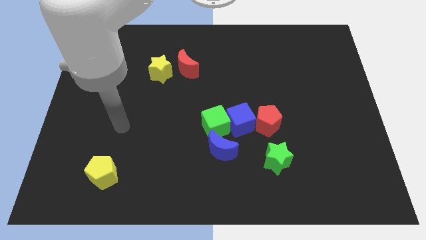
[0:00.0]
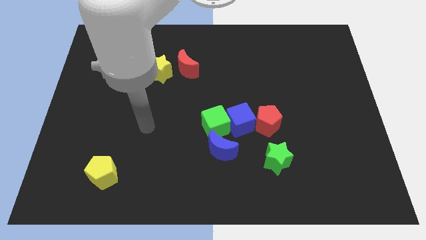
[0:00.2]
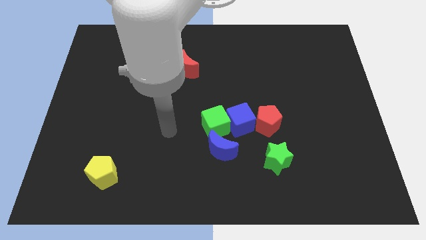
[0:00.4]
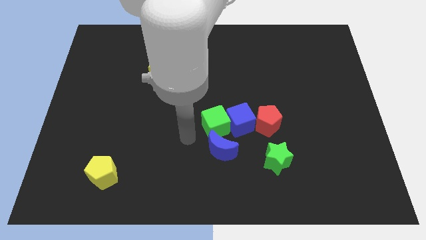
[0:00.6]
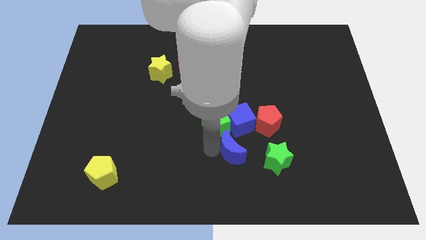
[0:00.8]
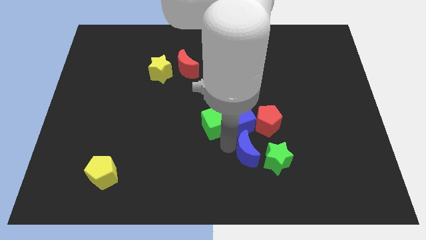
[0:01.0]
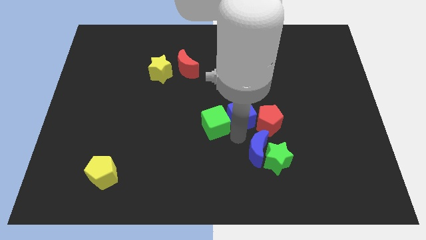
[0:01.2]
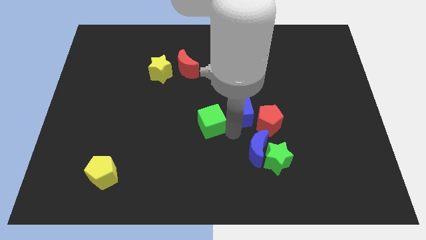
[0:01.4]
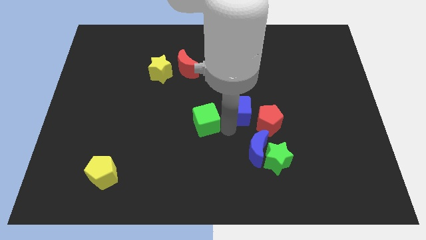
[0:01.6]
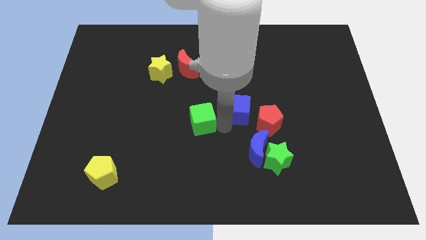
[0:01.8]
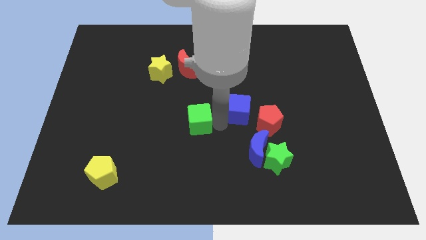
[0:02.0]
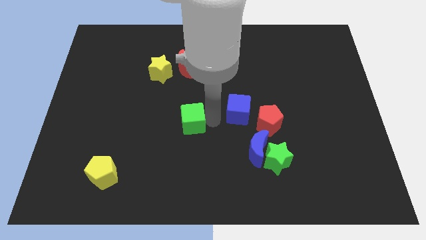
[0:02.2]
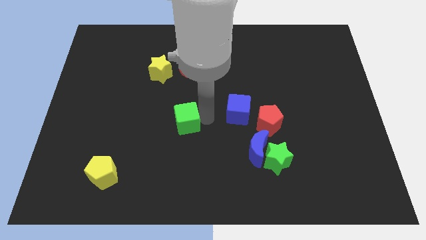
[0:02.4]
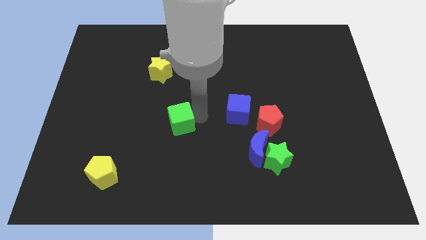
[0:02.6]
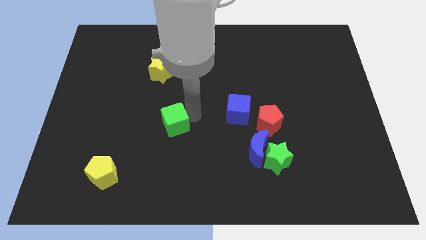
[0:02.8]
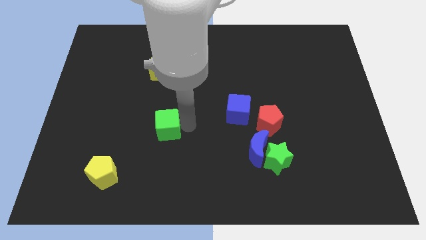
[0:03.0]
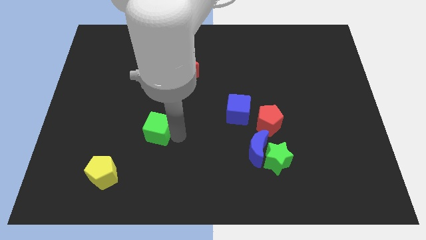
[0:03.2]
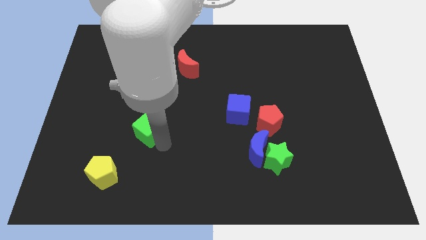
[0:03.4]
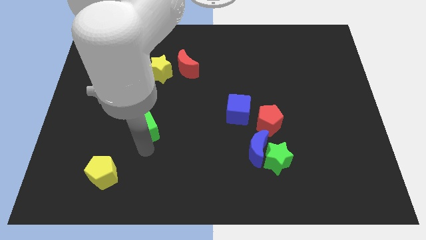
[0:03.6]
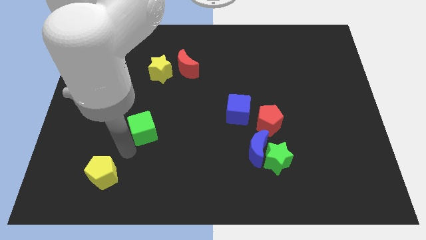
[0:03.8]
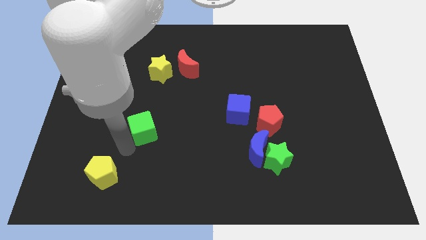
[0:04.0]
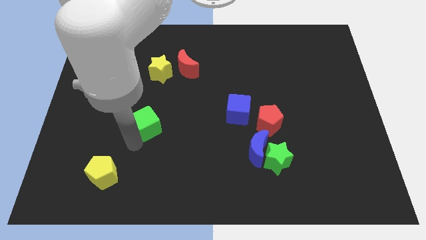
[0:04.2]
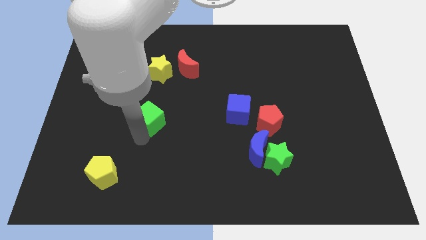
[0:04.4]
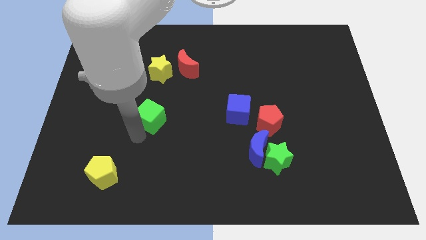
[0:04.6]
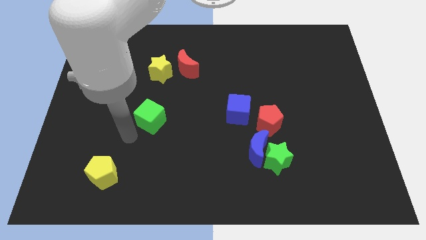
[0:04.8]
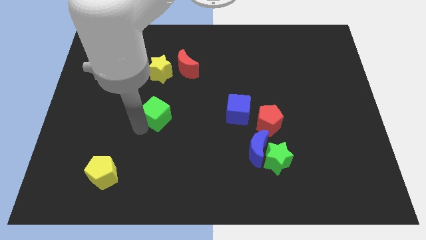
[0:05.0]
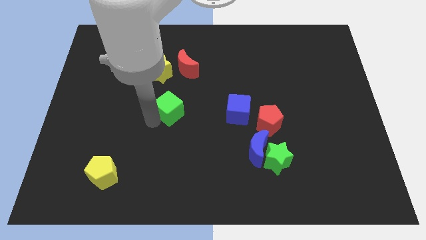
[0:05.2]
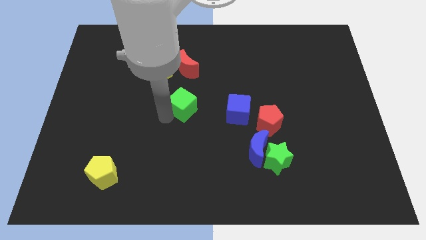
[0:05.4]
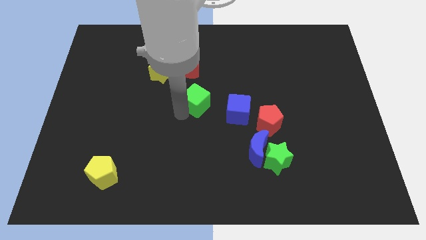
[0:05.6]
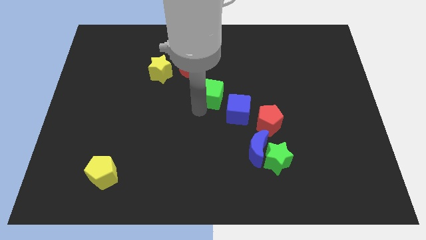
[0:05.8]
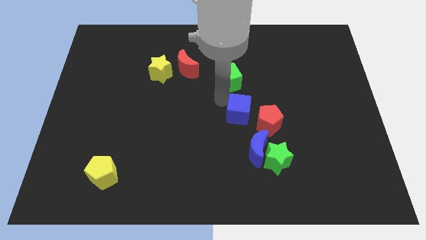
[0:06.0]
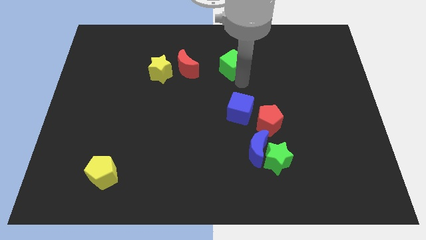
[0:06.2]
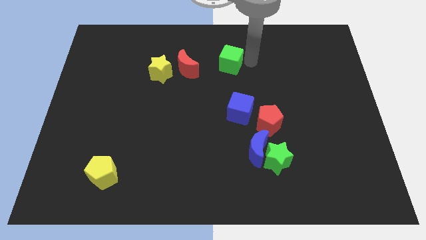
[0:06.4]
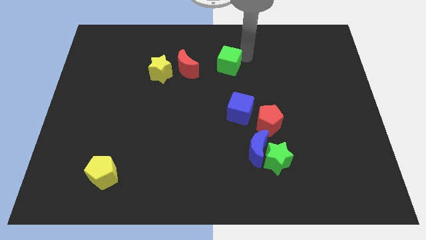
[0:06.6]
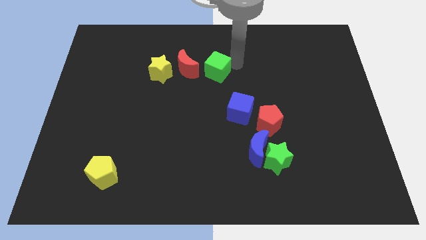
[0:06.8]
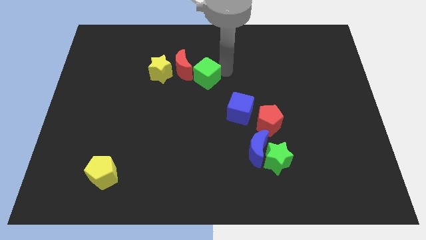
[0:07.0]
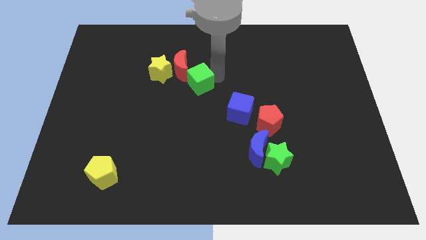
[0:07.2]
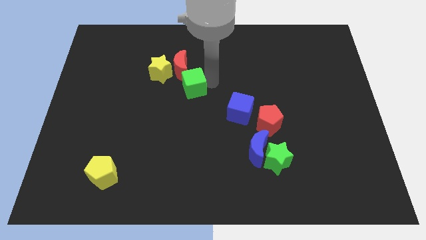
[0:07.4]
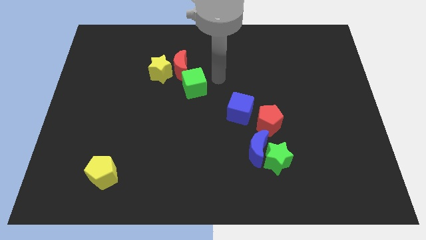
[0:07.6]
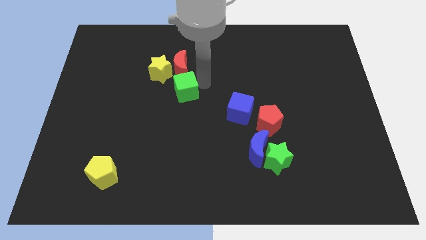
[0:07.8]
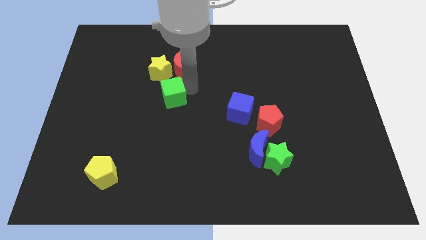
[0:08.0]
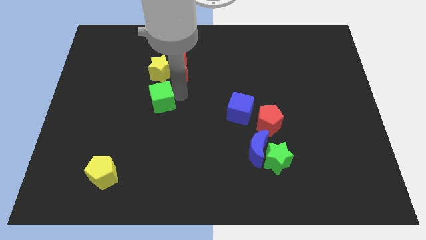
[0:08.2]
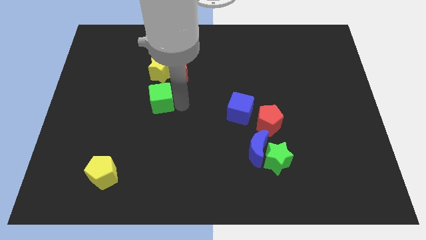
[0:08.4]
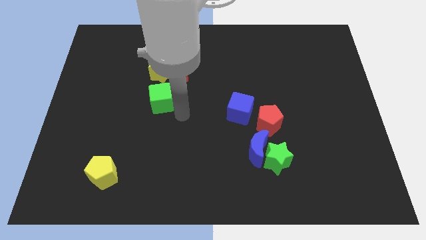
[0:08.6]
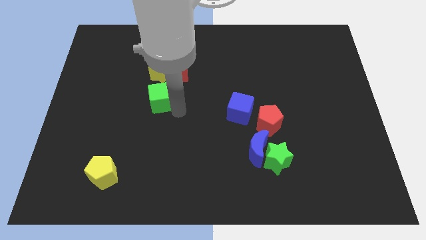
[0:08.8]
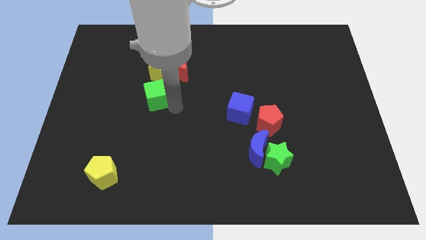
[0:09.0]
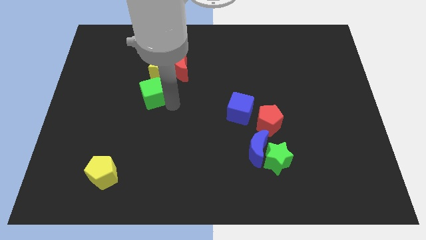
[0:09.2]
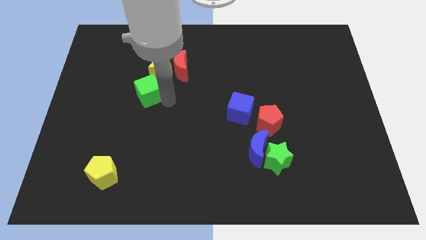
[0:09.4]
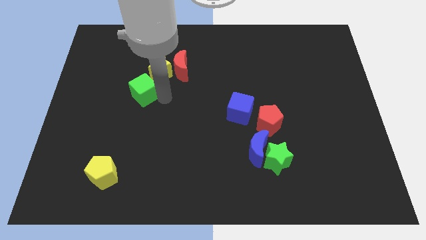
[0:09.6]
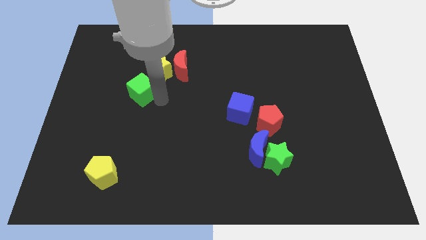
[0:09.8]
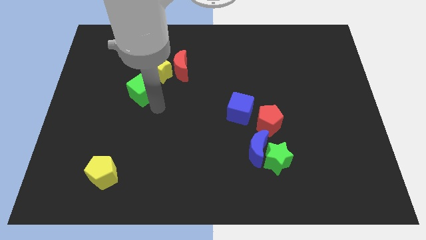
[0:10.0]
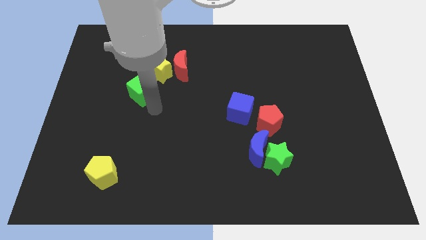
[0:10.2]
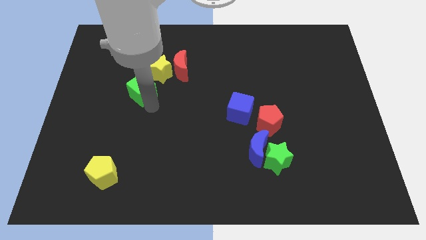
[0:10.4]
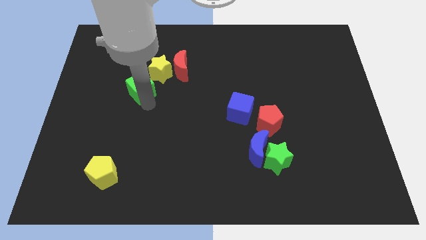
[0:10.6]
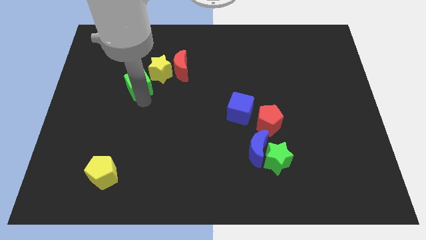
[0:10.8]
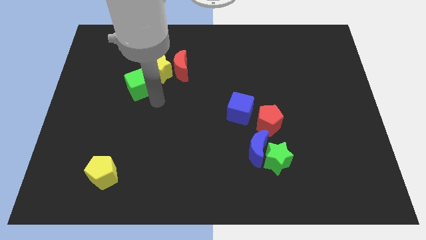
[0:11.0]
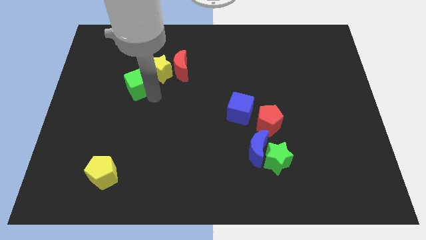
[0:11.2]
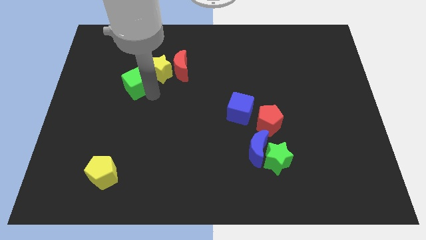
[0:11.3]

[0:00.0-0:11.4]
slide the green cube to the left side of the yellow star

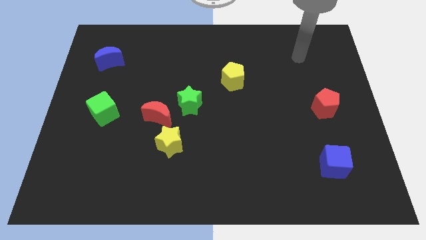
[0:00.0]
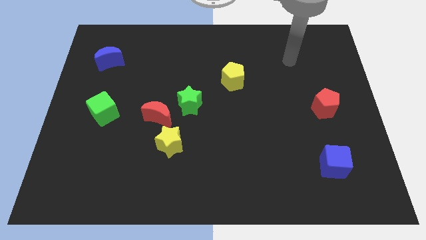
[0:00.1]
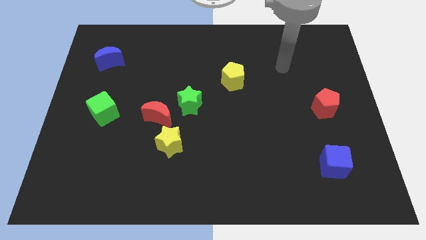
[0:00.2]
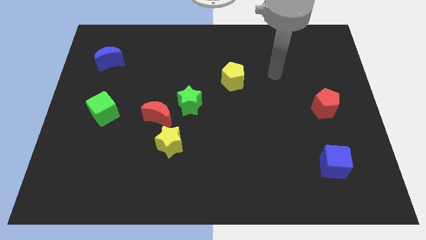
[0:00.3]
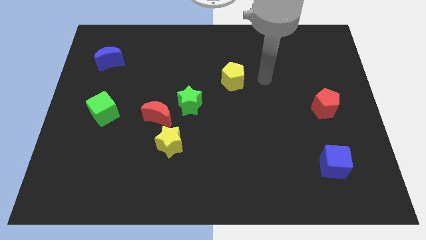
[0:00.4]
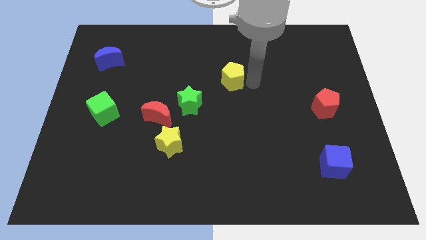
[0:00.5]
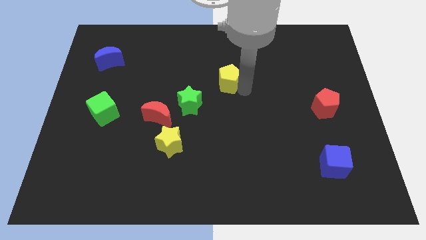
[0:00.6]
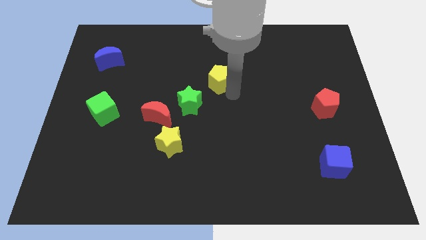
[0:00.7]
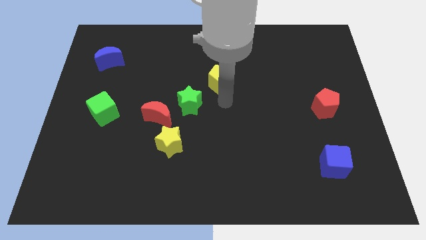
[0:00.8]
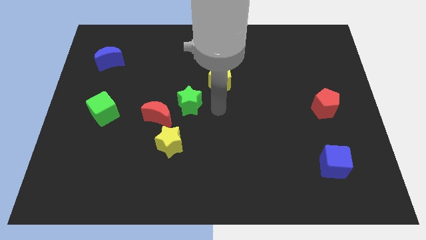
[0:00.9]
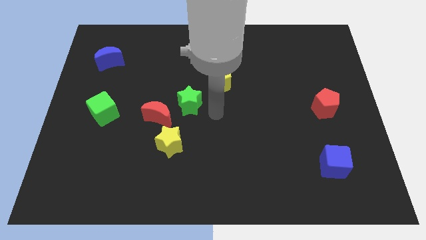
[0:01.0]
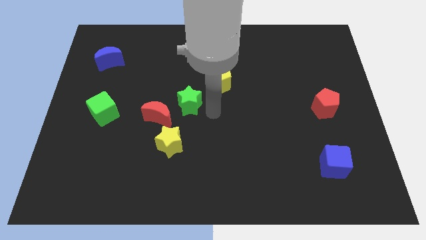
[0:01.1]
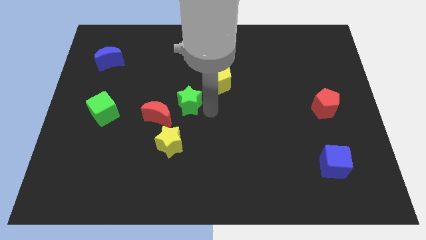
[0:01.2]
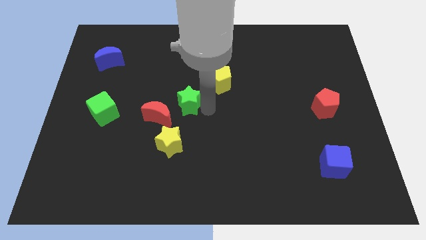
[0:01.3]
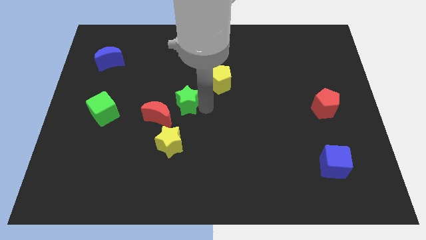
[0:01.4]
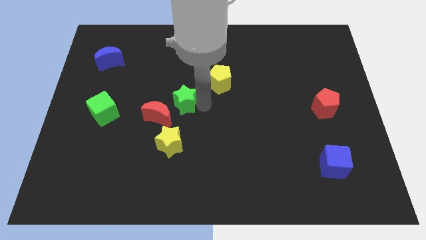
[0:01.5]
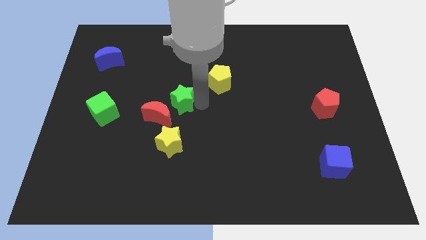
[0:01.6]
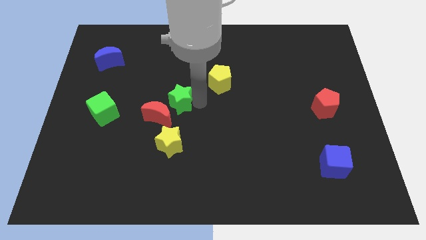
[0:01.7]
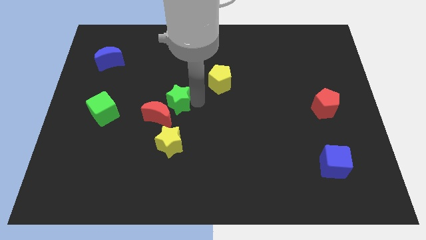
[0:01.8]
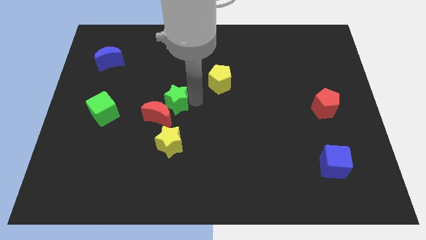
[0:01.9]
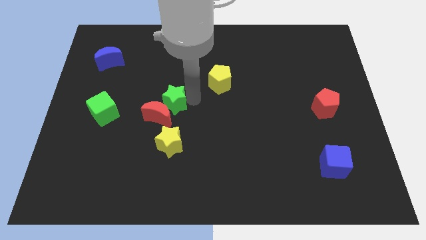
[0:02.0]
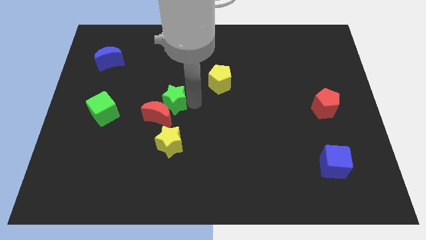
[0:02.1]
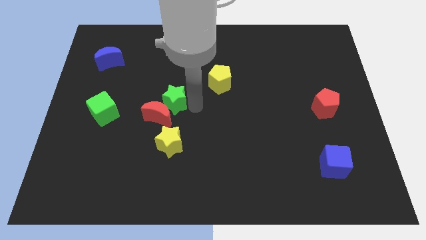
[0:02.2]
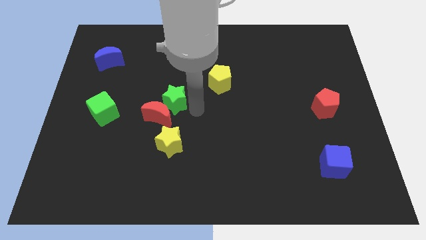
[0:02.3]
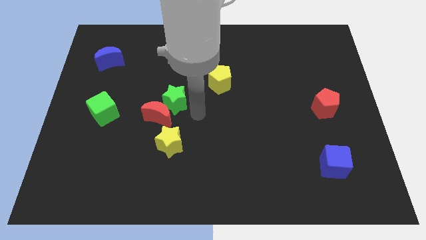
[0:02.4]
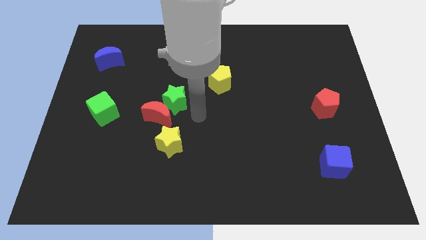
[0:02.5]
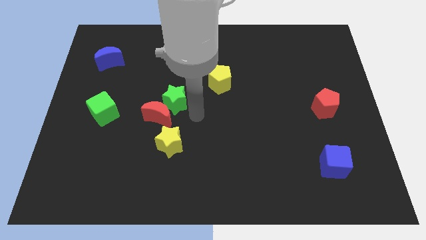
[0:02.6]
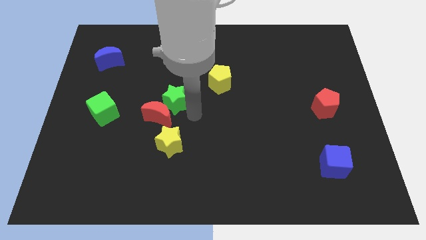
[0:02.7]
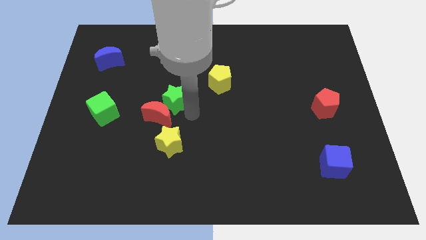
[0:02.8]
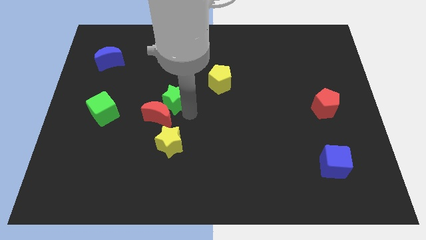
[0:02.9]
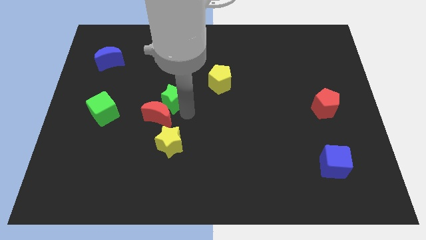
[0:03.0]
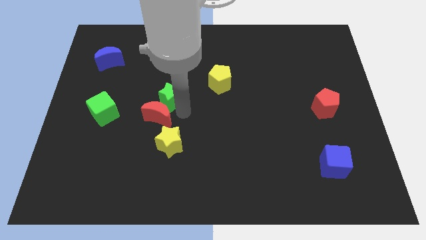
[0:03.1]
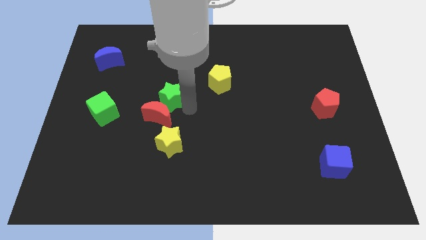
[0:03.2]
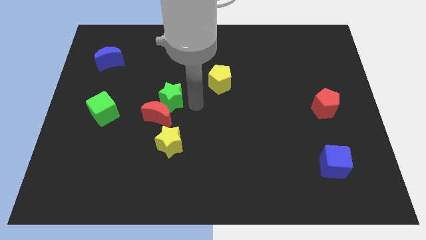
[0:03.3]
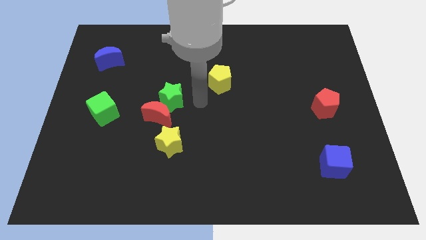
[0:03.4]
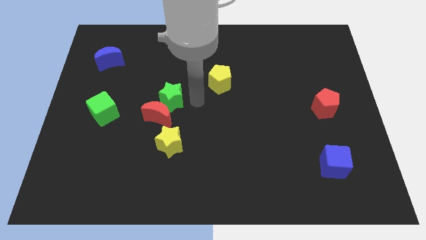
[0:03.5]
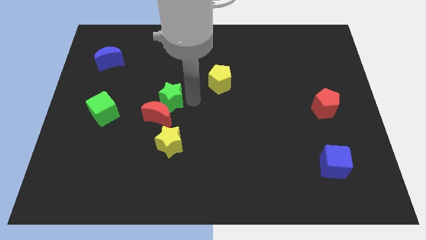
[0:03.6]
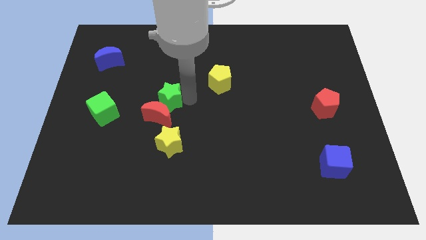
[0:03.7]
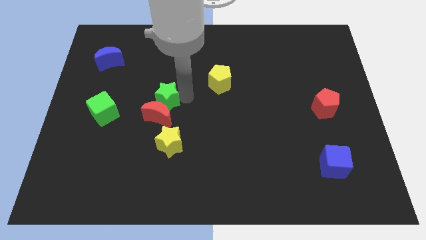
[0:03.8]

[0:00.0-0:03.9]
slide the green star diagonally up and to the left of the red moon
